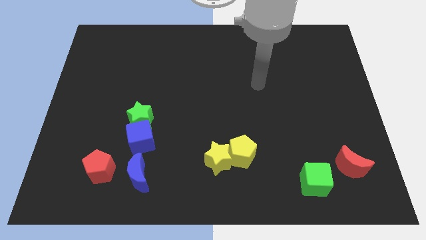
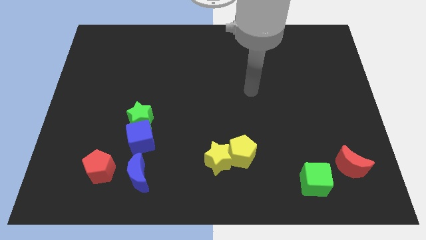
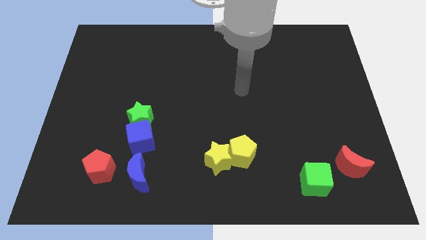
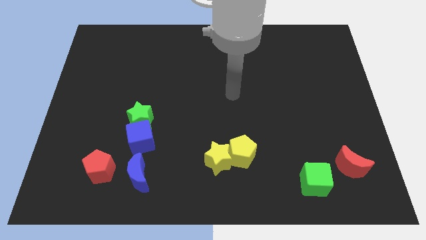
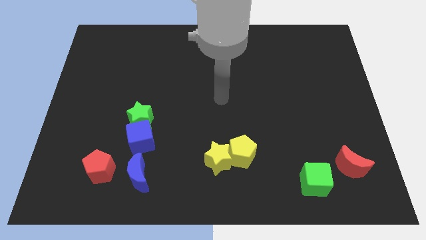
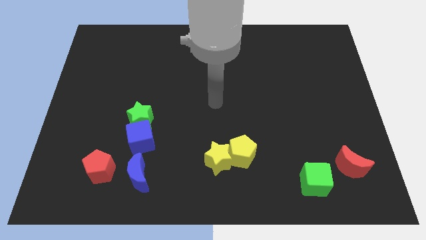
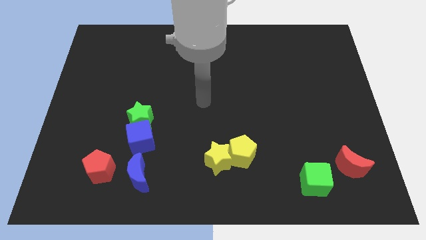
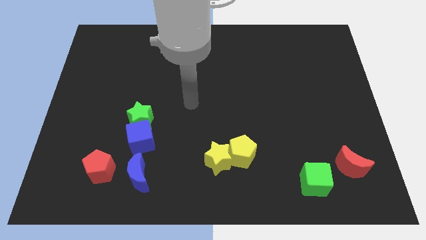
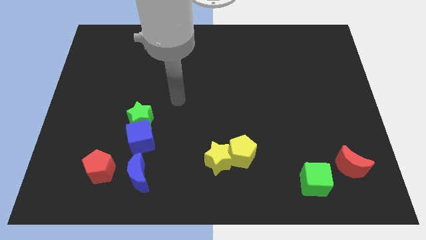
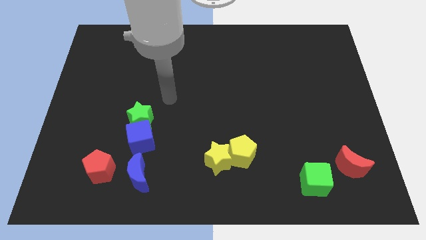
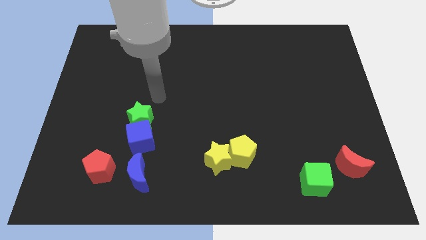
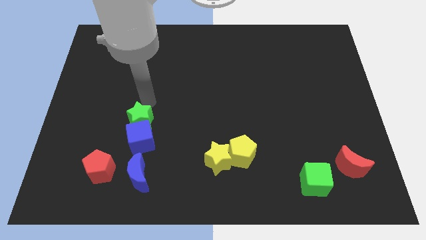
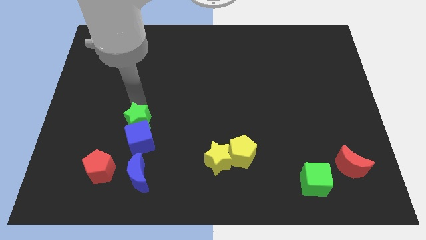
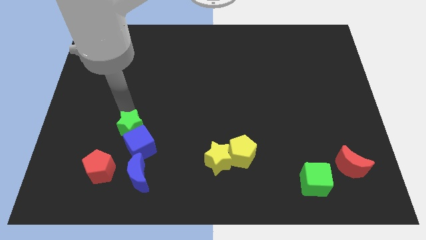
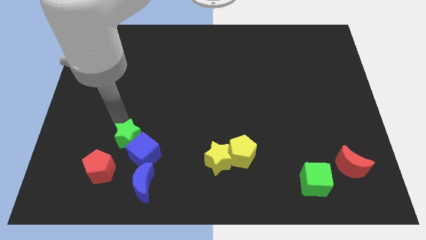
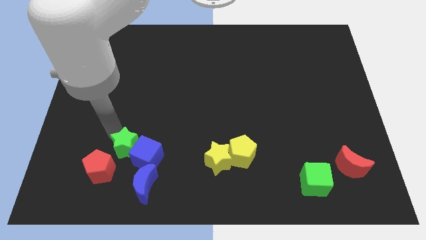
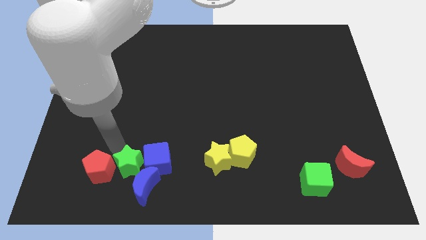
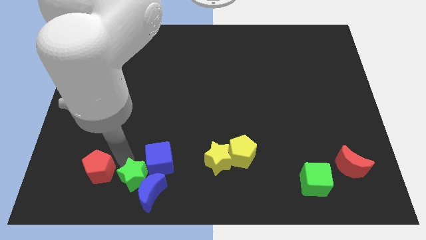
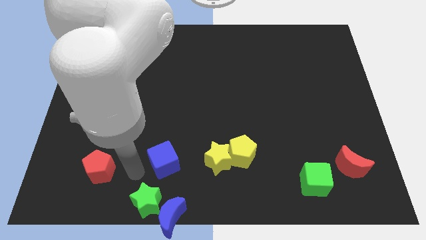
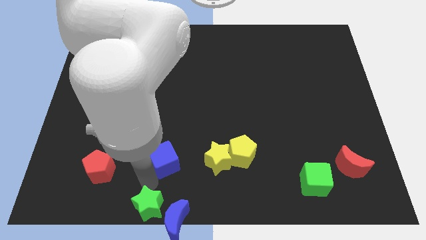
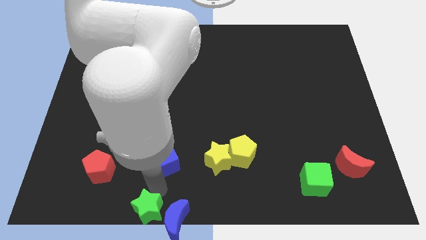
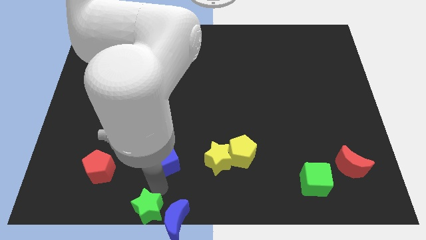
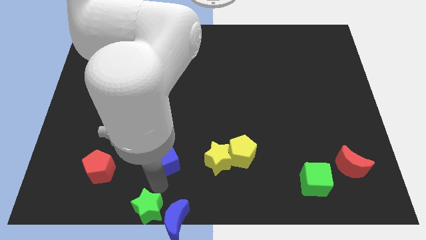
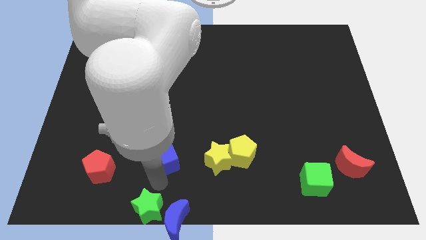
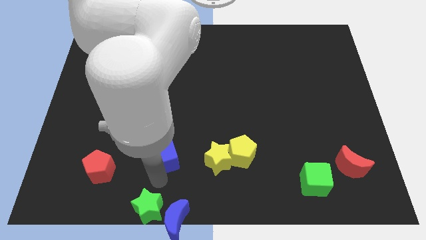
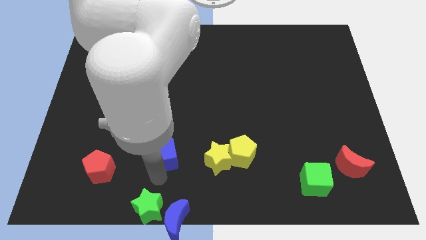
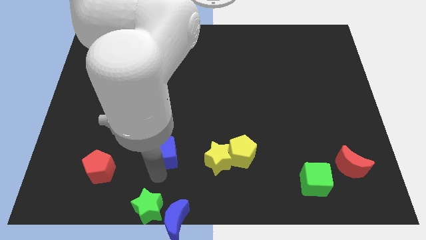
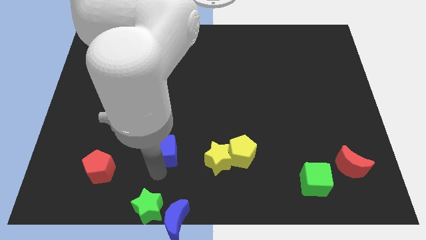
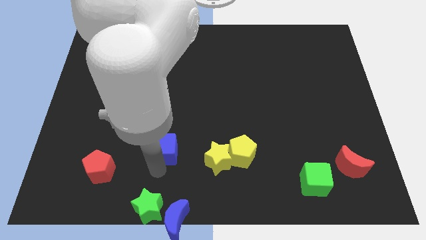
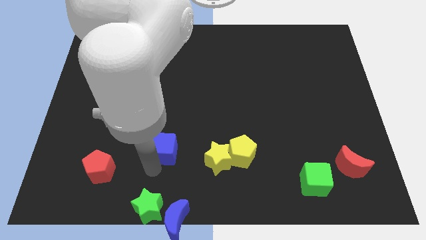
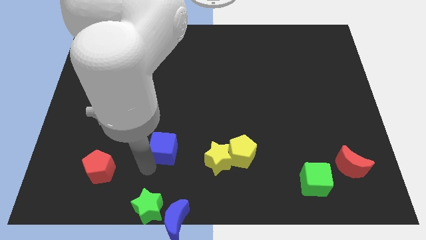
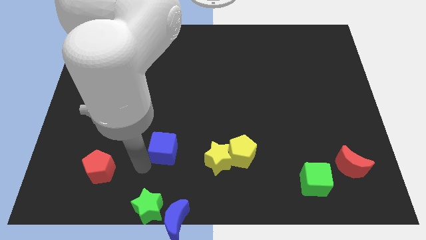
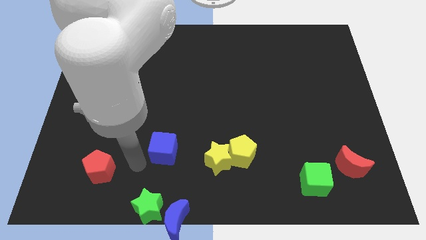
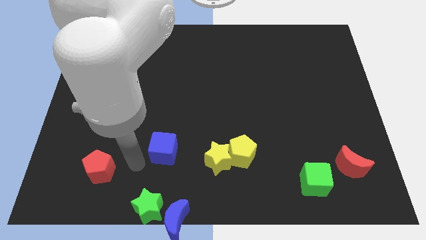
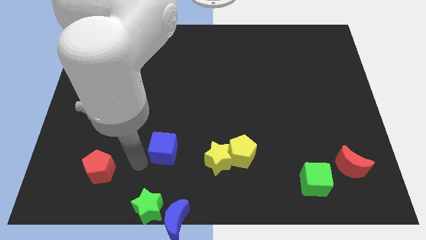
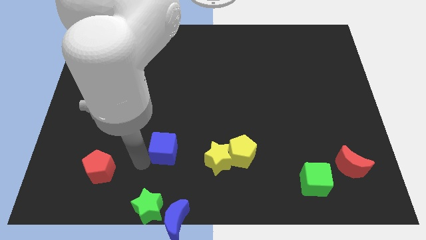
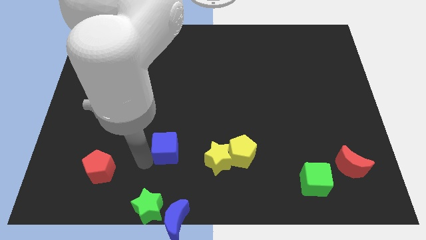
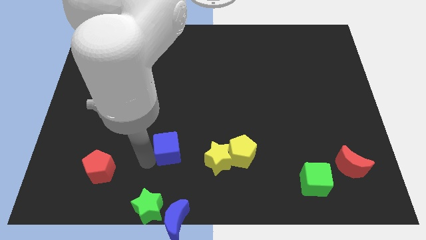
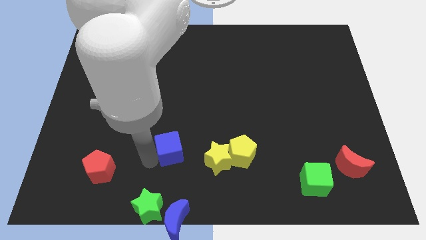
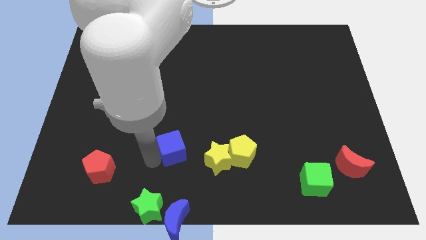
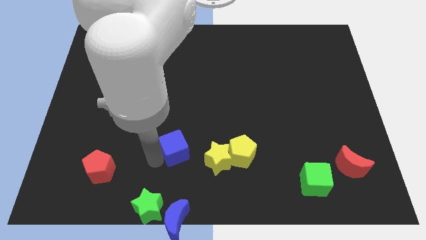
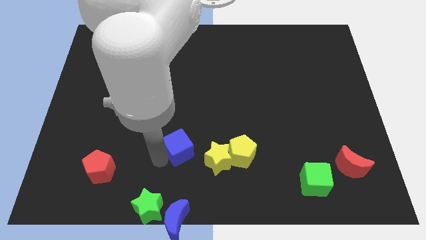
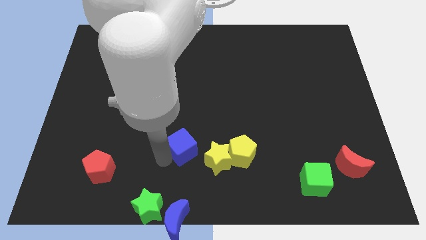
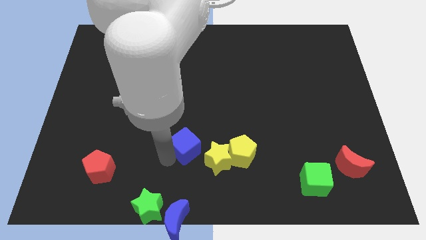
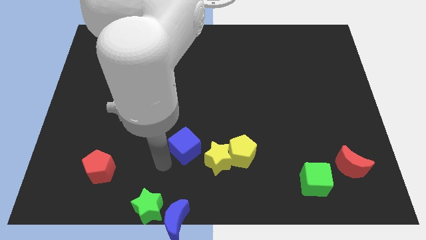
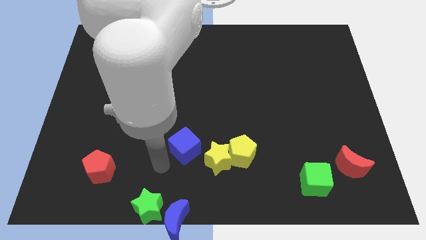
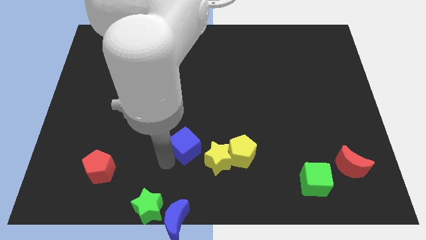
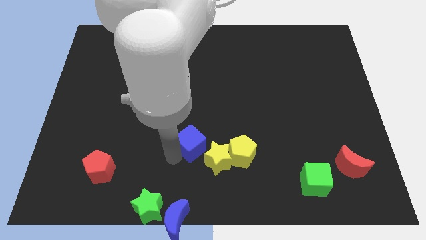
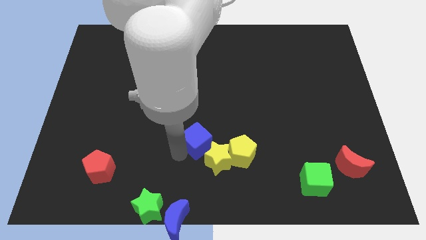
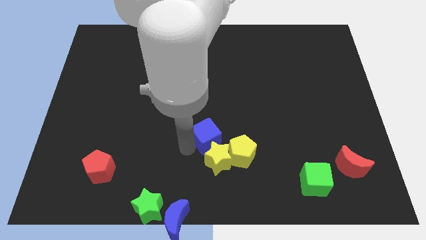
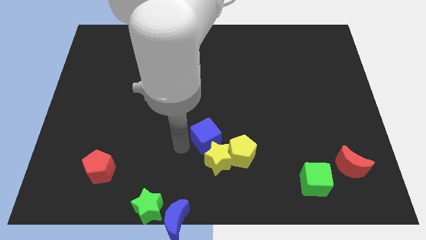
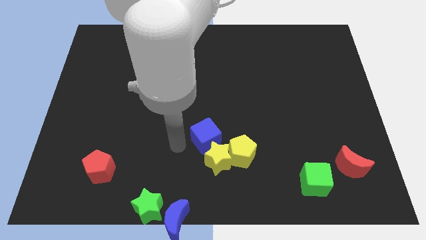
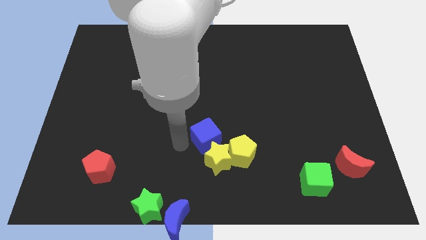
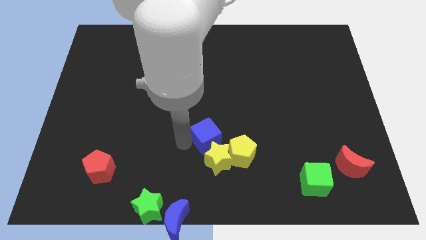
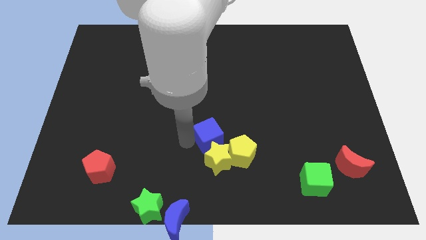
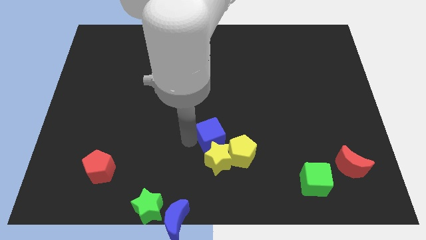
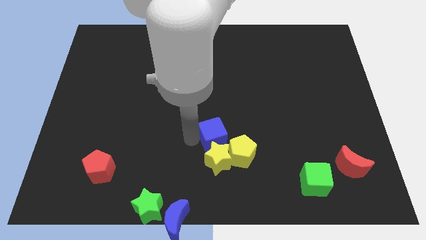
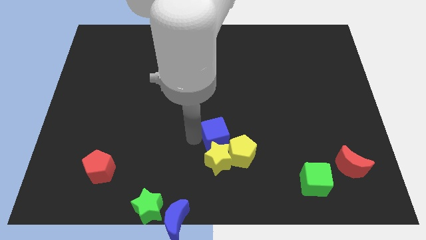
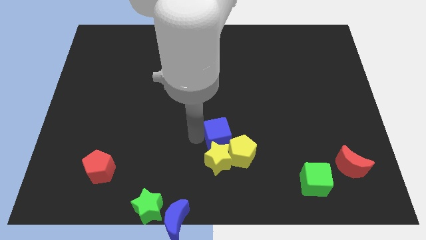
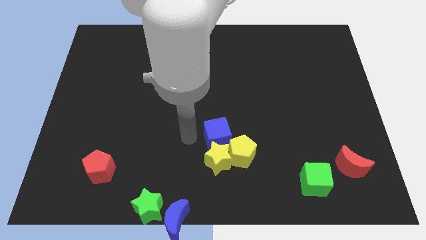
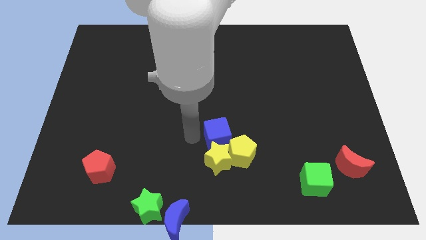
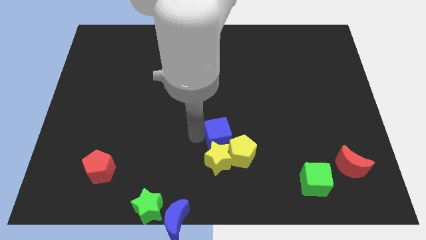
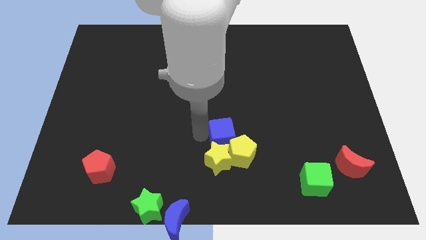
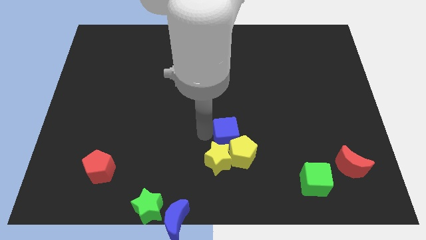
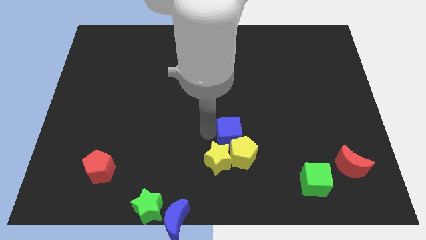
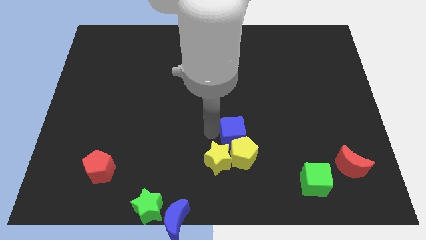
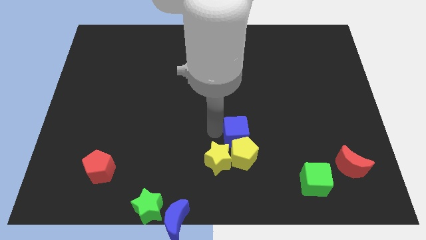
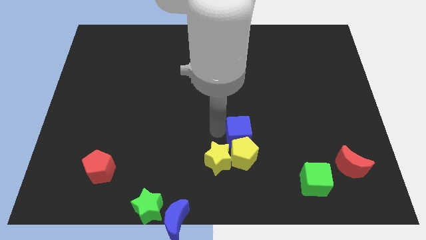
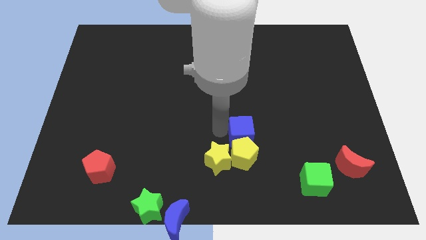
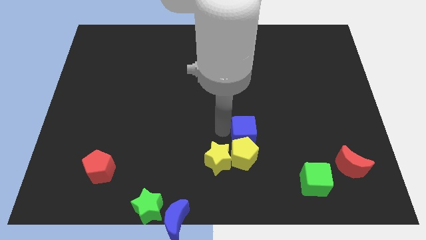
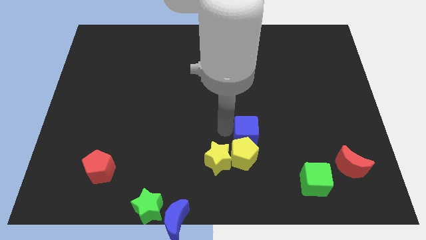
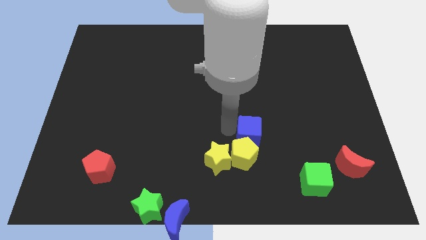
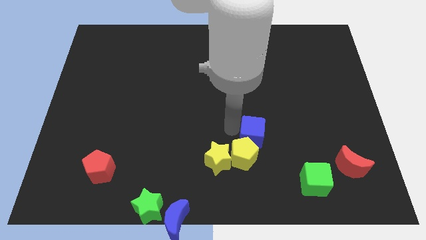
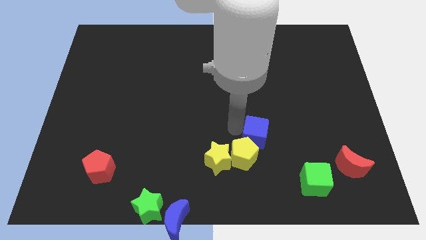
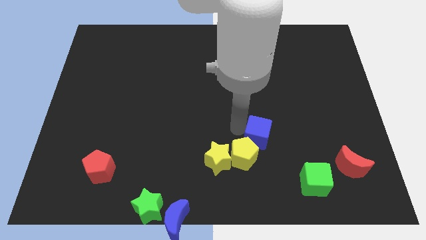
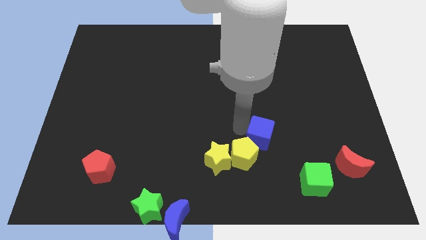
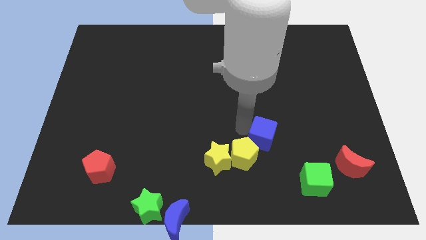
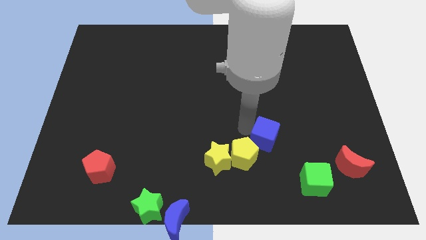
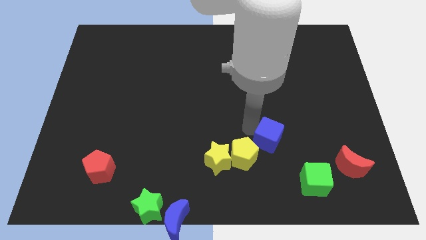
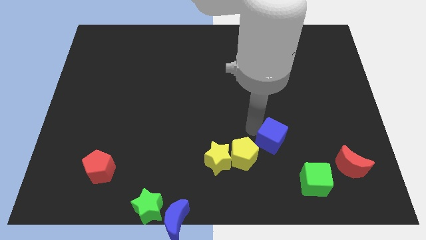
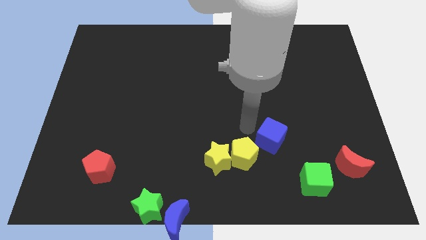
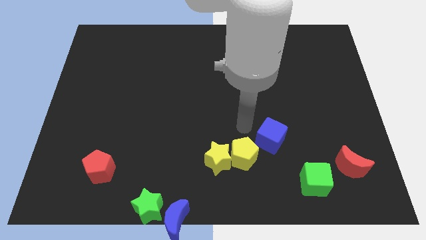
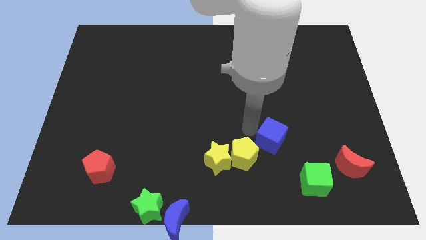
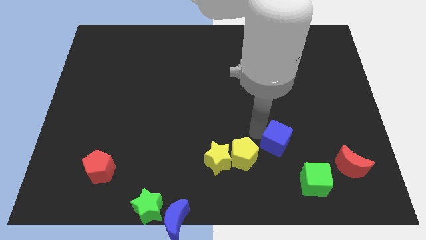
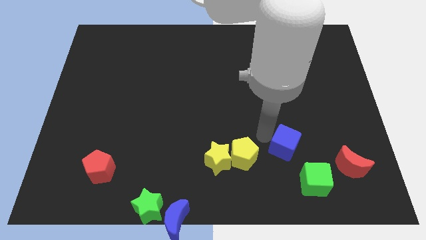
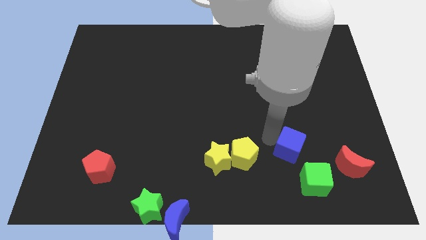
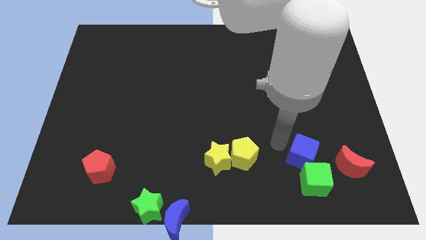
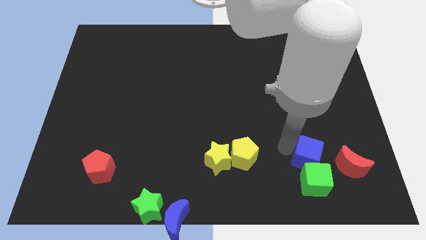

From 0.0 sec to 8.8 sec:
push the blue cube to the top right of the green cube
